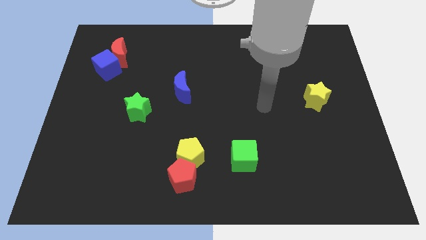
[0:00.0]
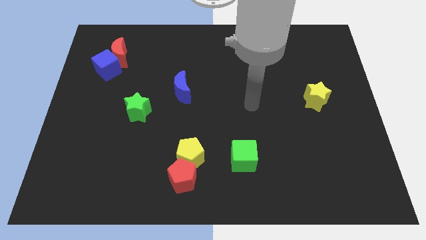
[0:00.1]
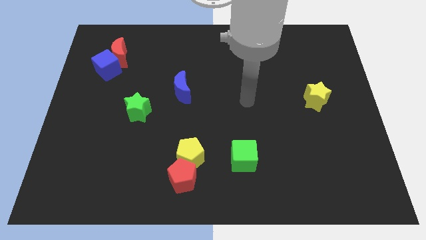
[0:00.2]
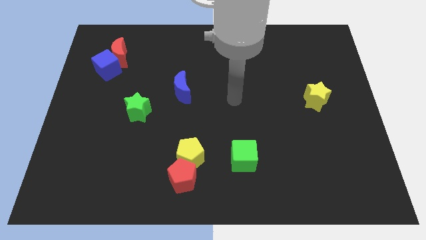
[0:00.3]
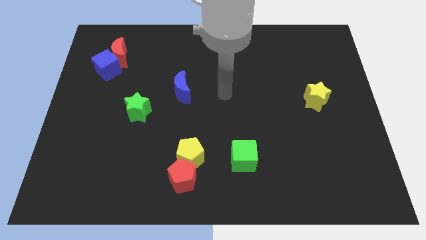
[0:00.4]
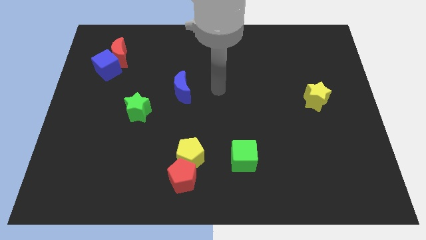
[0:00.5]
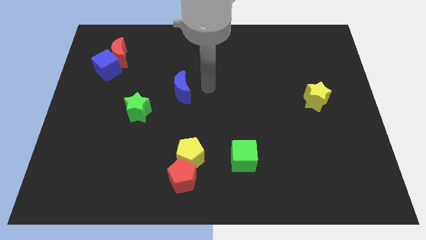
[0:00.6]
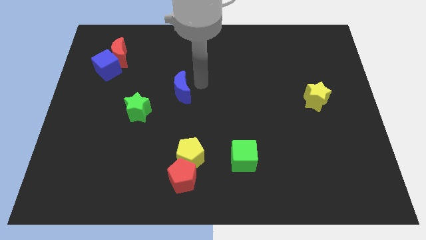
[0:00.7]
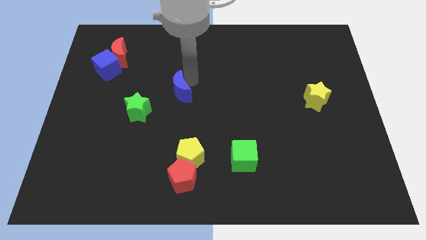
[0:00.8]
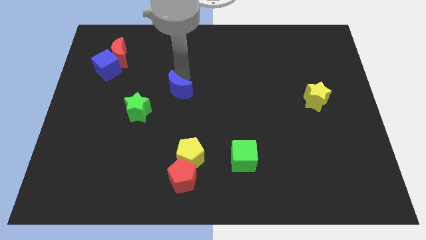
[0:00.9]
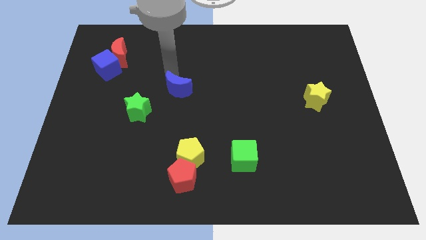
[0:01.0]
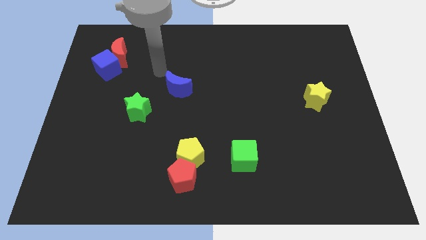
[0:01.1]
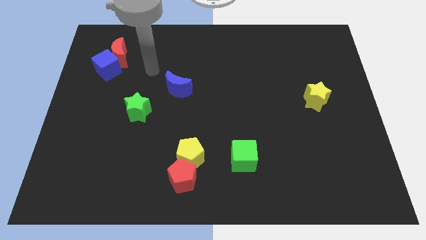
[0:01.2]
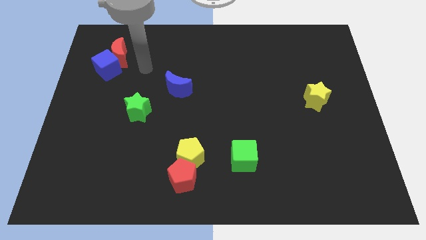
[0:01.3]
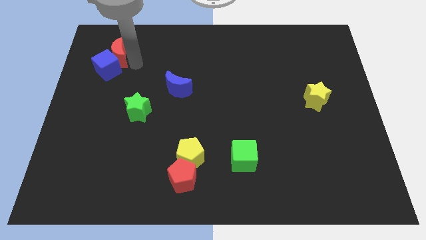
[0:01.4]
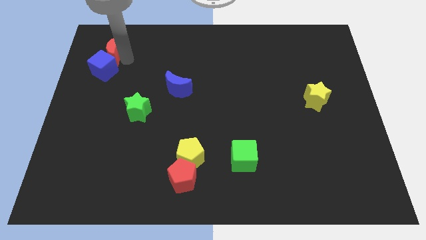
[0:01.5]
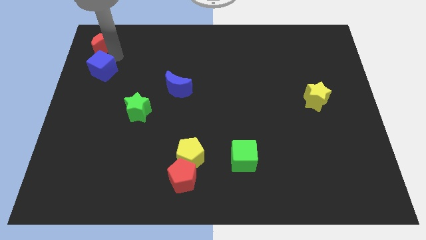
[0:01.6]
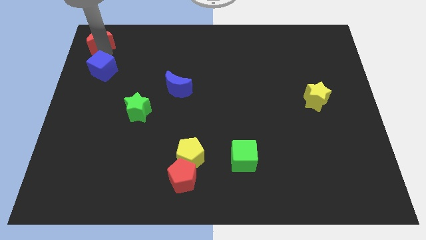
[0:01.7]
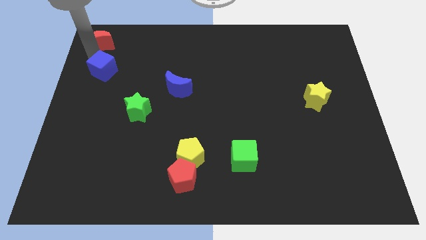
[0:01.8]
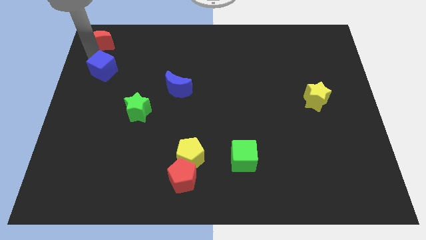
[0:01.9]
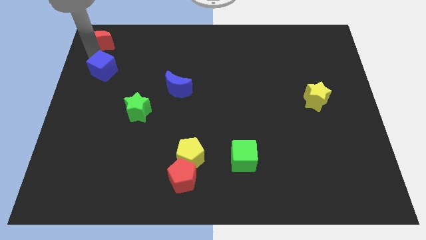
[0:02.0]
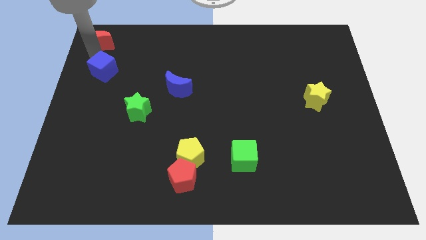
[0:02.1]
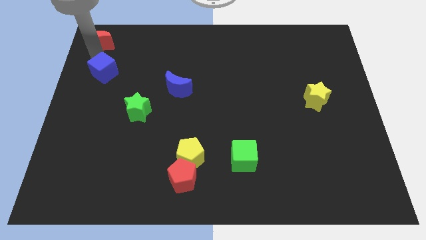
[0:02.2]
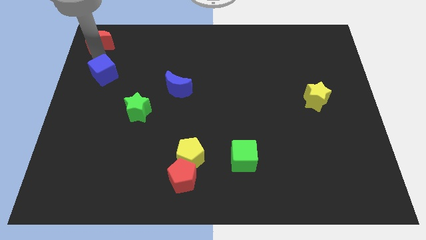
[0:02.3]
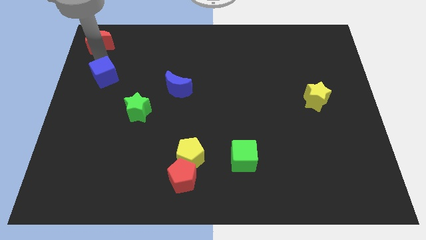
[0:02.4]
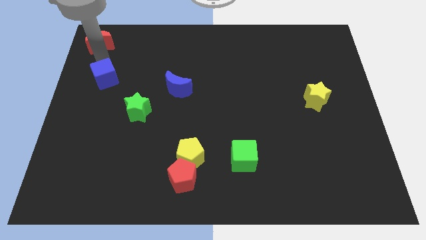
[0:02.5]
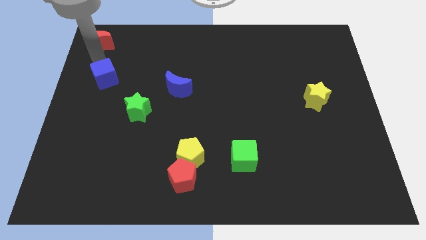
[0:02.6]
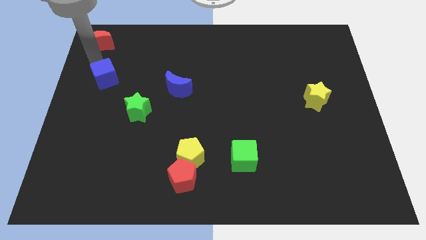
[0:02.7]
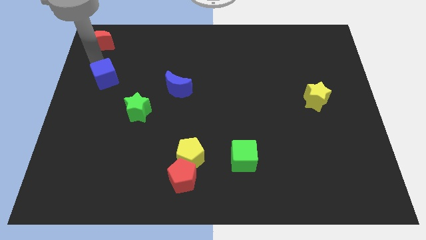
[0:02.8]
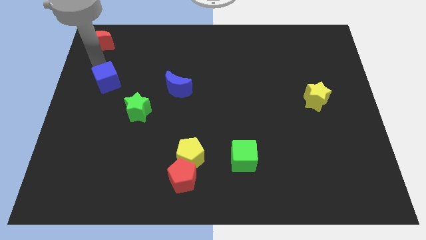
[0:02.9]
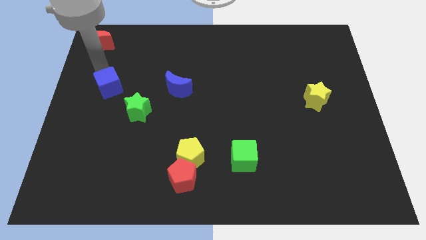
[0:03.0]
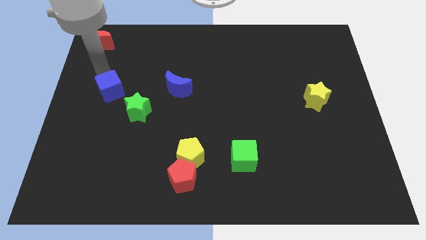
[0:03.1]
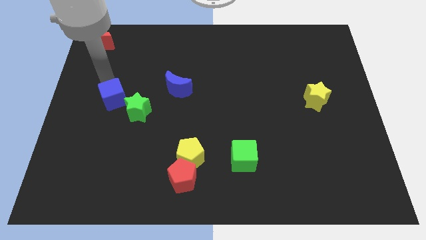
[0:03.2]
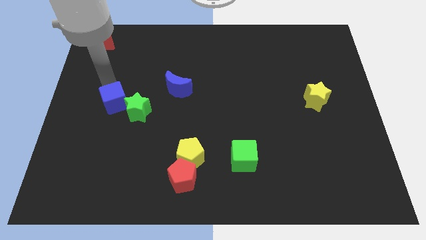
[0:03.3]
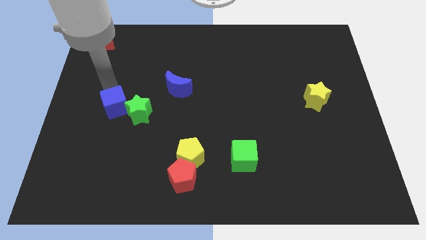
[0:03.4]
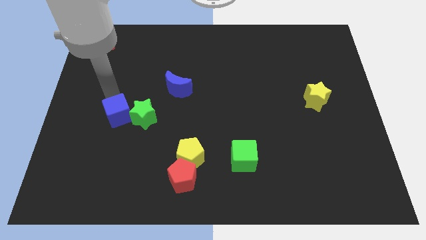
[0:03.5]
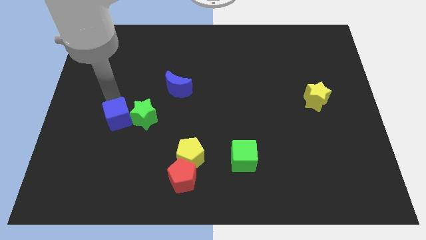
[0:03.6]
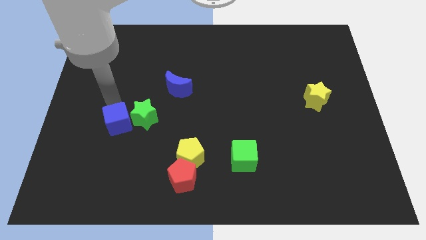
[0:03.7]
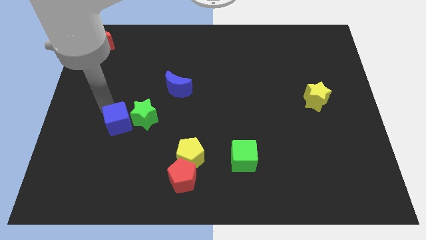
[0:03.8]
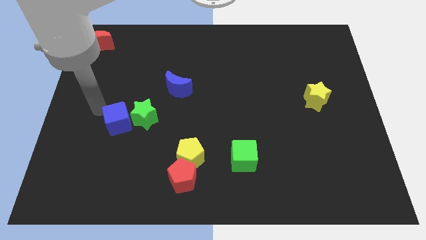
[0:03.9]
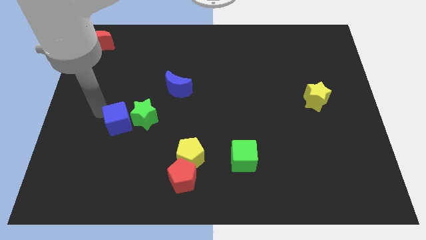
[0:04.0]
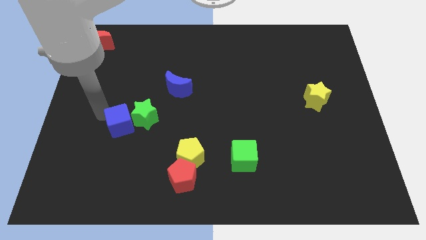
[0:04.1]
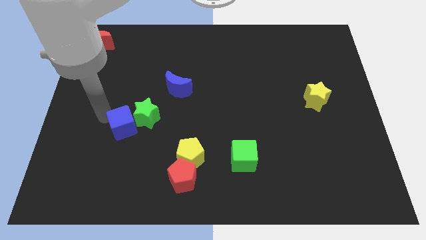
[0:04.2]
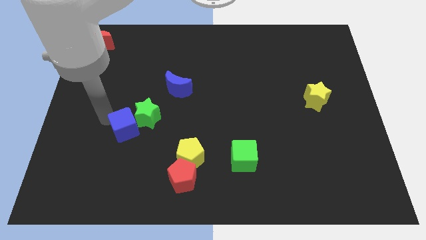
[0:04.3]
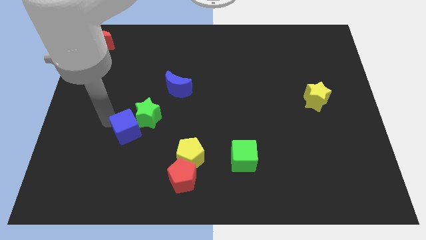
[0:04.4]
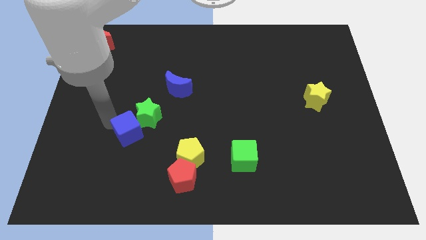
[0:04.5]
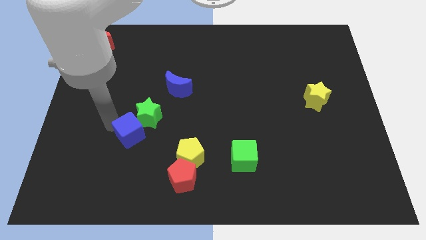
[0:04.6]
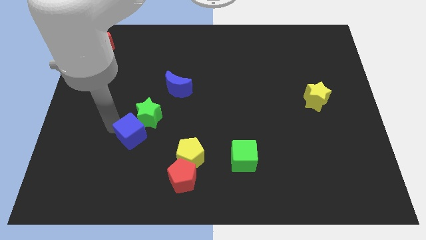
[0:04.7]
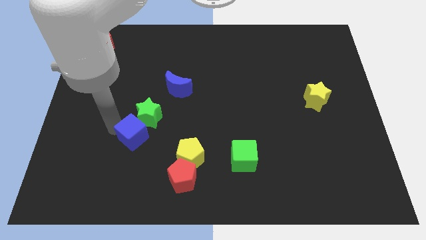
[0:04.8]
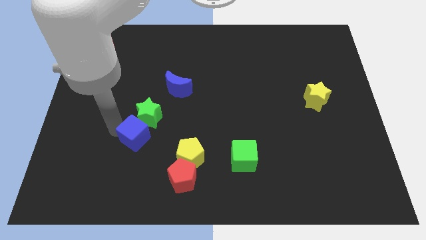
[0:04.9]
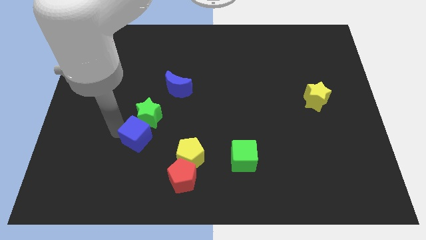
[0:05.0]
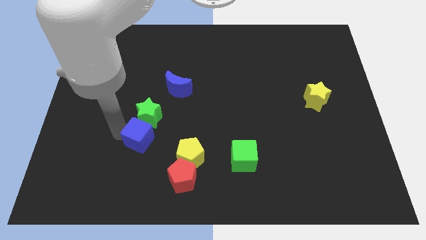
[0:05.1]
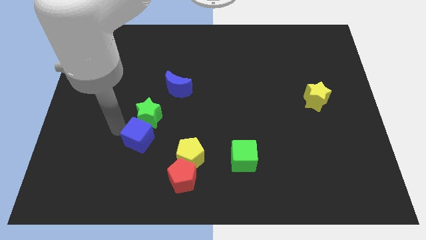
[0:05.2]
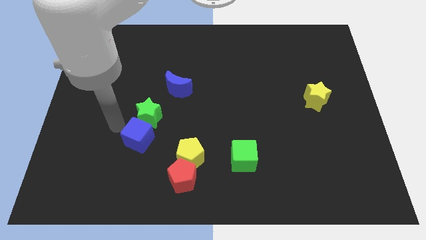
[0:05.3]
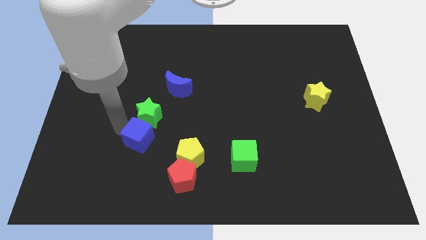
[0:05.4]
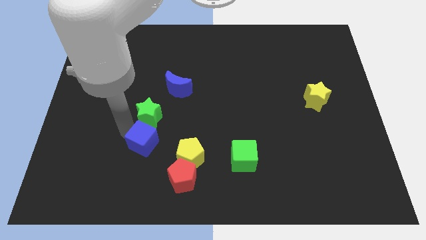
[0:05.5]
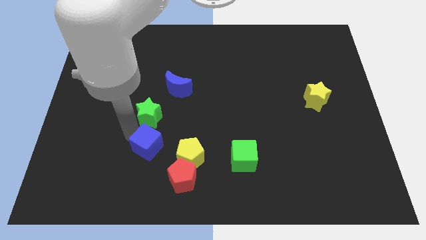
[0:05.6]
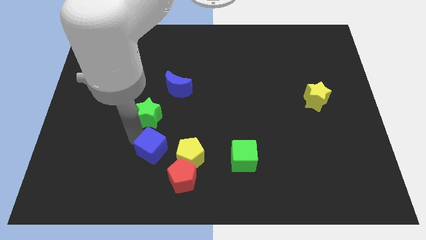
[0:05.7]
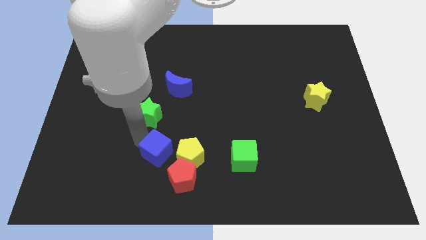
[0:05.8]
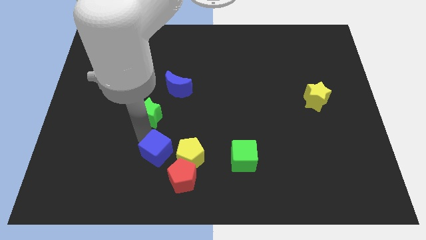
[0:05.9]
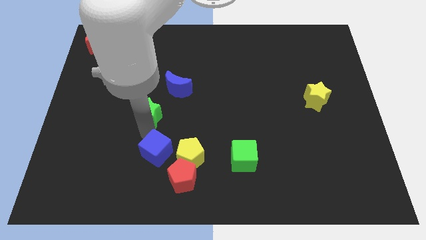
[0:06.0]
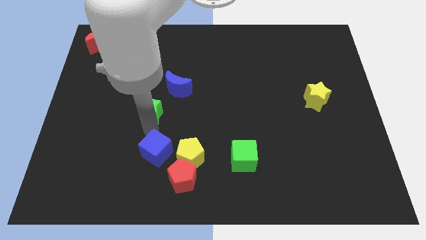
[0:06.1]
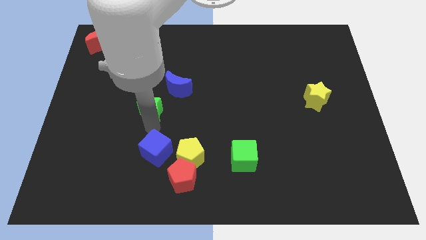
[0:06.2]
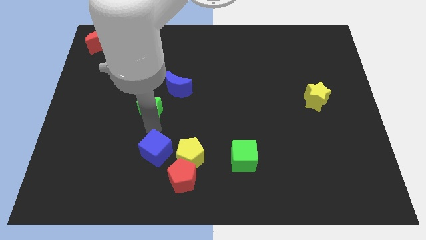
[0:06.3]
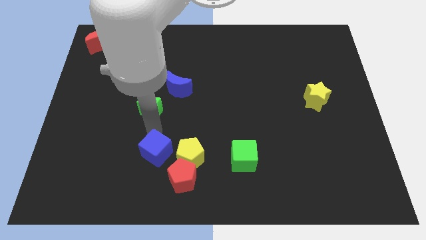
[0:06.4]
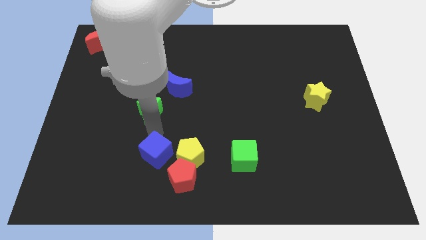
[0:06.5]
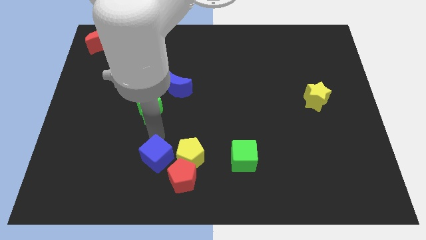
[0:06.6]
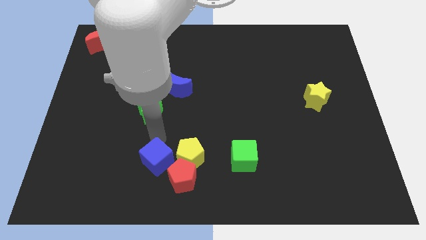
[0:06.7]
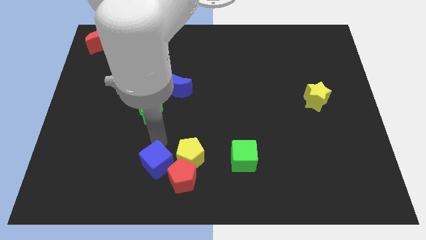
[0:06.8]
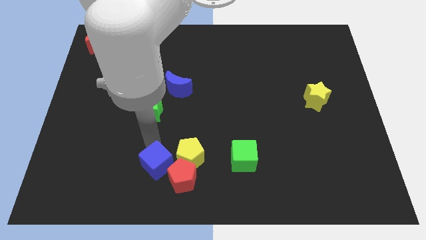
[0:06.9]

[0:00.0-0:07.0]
move the blue cube to the red pentagon

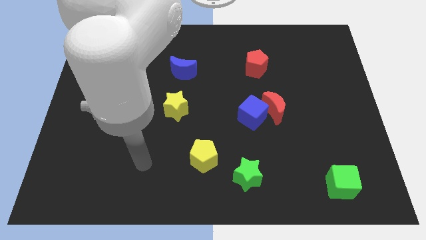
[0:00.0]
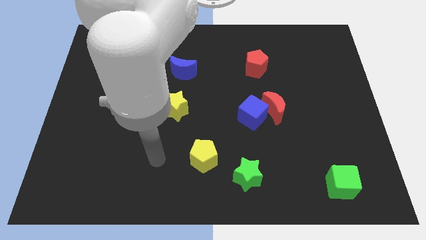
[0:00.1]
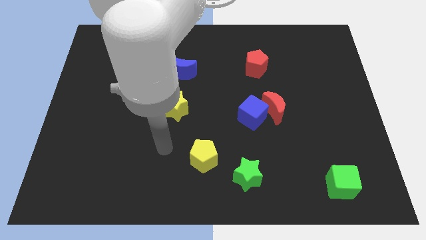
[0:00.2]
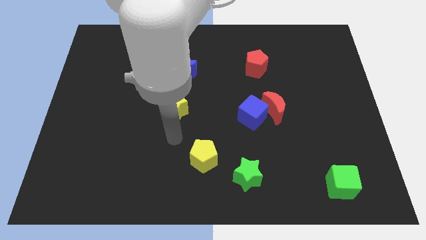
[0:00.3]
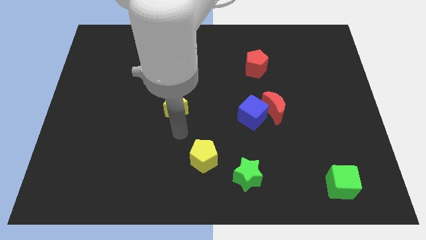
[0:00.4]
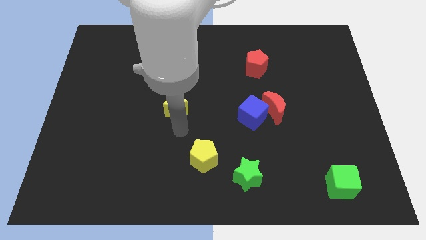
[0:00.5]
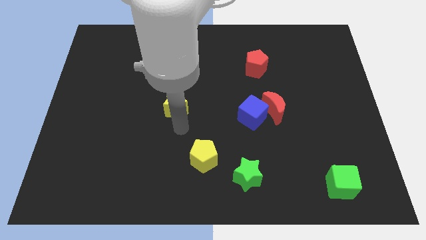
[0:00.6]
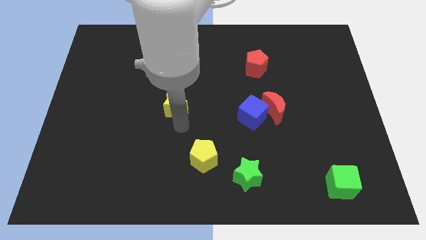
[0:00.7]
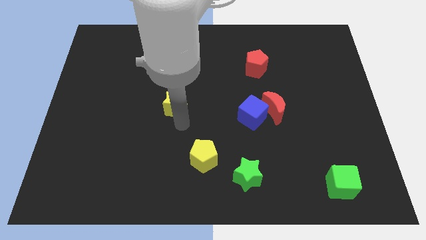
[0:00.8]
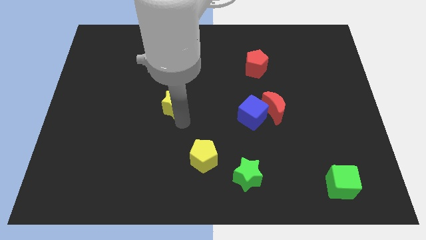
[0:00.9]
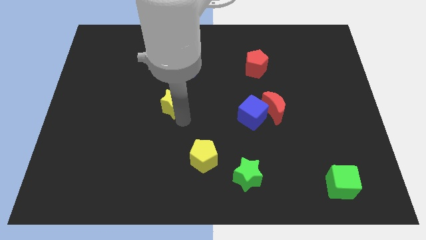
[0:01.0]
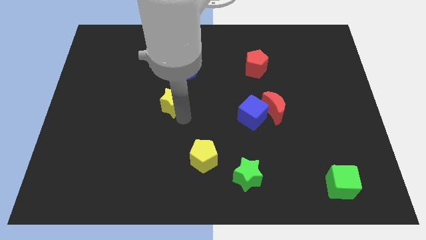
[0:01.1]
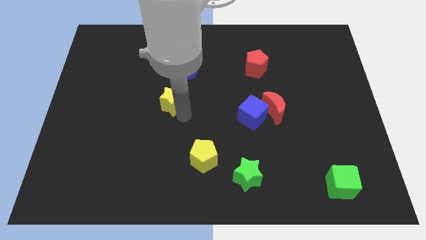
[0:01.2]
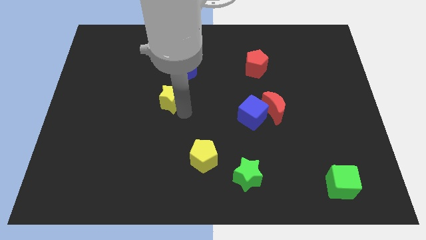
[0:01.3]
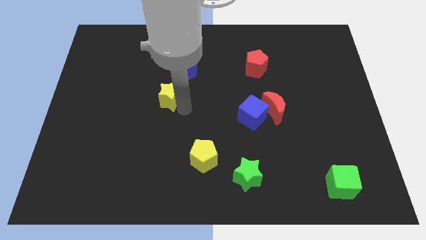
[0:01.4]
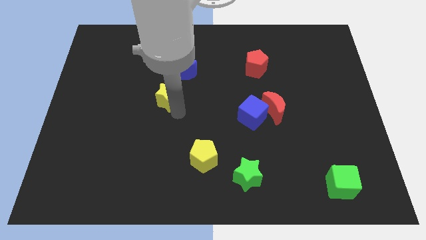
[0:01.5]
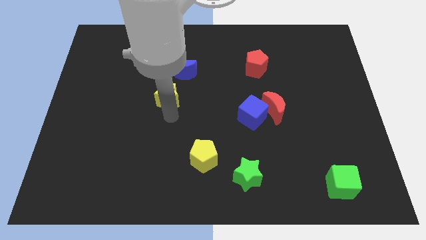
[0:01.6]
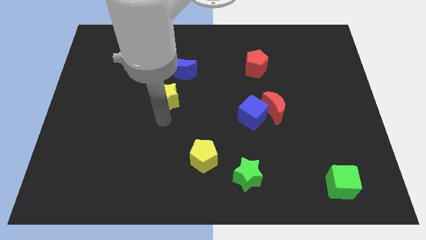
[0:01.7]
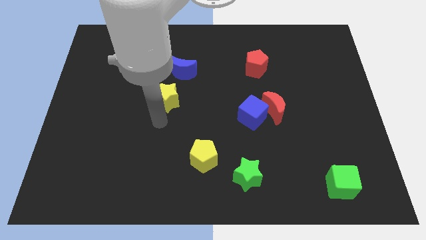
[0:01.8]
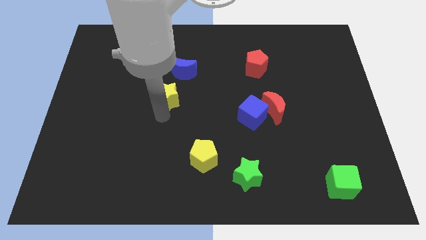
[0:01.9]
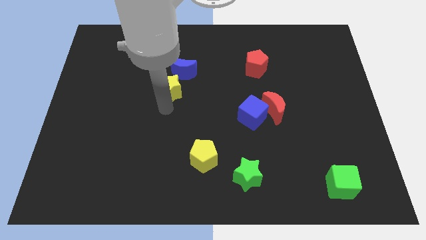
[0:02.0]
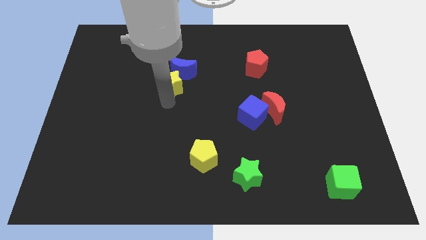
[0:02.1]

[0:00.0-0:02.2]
push the yellow star towards the blue moon
